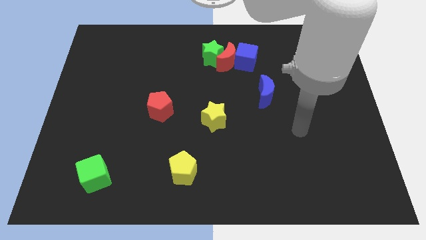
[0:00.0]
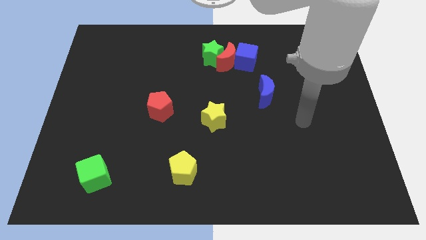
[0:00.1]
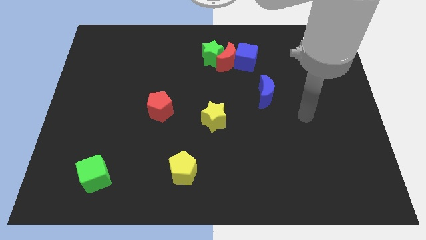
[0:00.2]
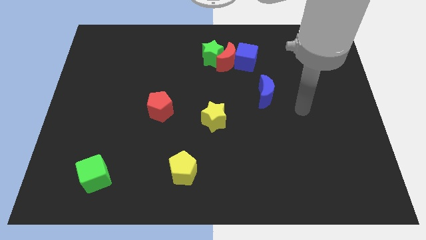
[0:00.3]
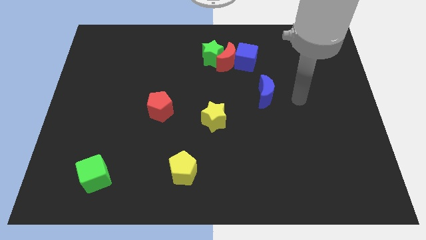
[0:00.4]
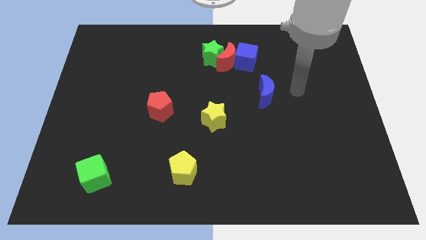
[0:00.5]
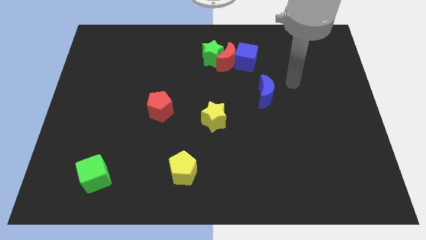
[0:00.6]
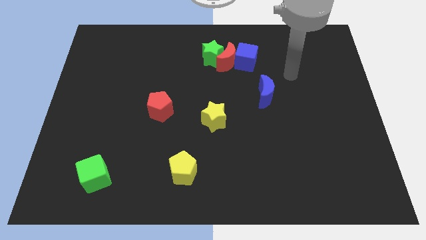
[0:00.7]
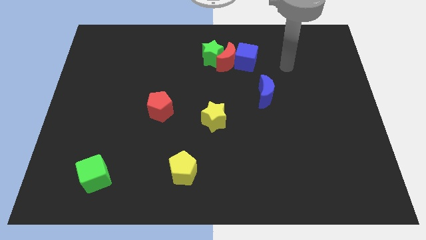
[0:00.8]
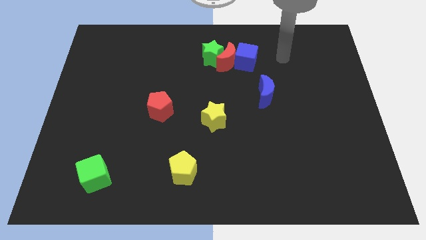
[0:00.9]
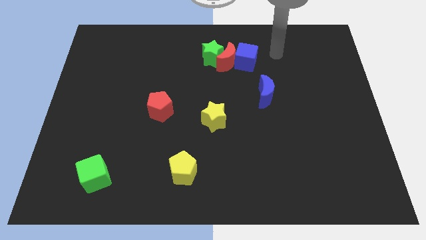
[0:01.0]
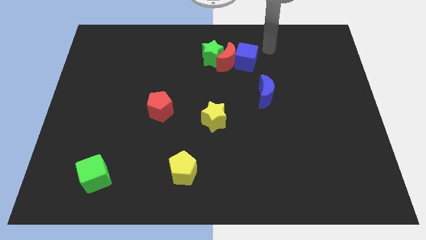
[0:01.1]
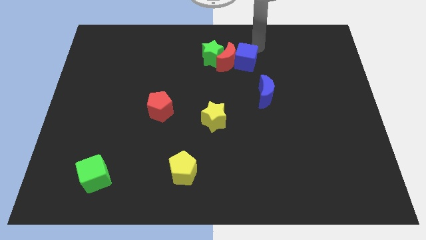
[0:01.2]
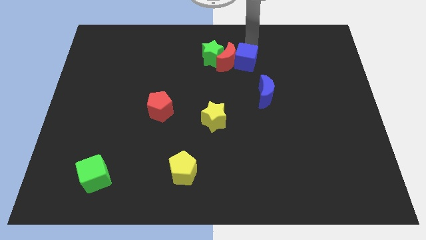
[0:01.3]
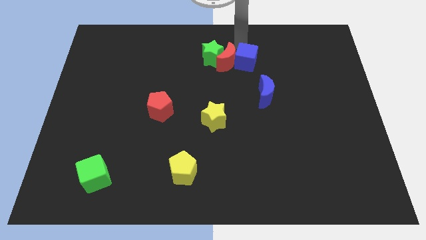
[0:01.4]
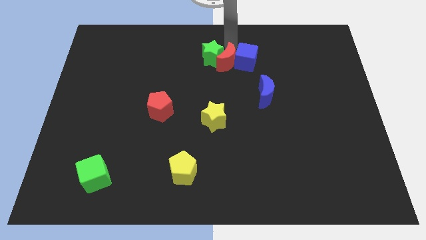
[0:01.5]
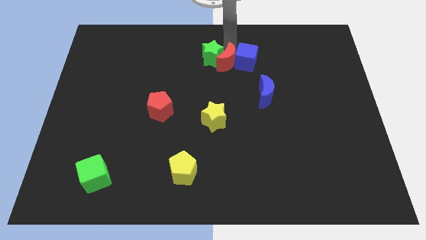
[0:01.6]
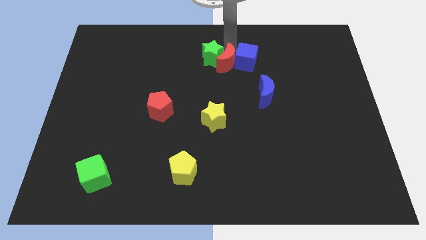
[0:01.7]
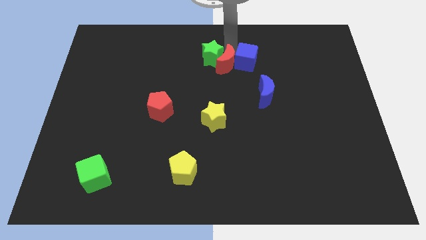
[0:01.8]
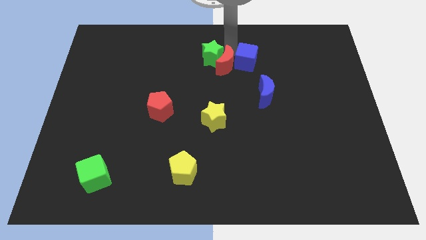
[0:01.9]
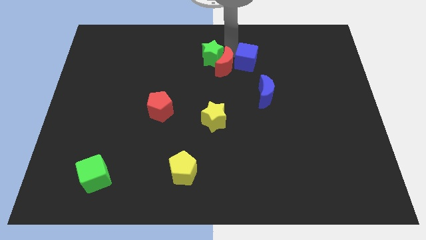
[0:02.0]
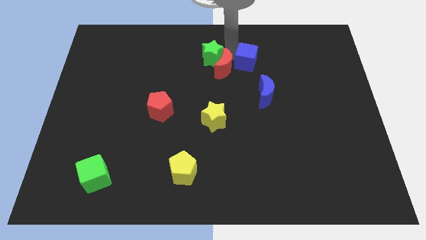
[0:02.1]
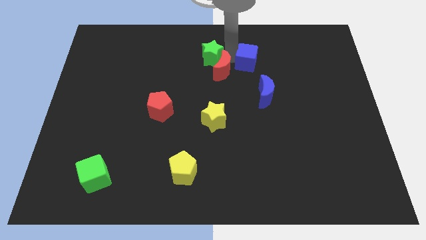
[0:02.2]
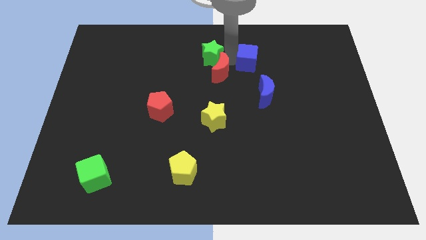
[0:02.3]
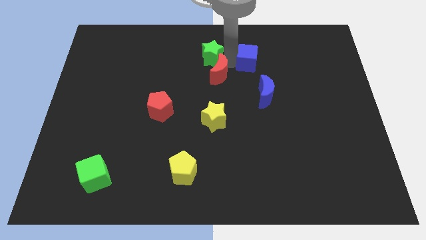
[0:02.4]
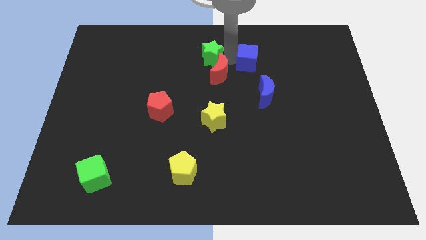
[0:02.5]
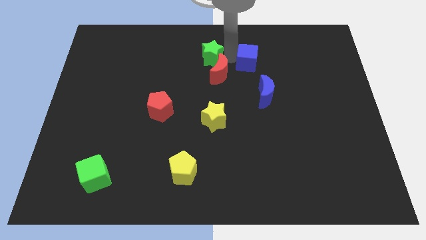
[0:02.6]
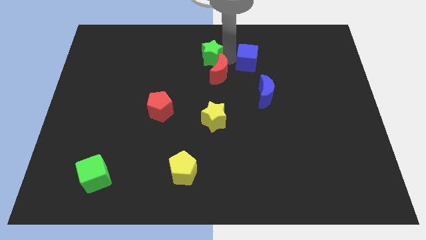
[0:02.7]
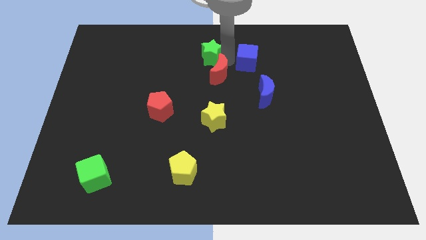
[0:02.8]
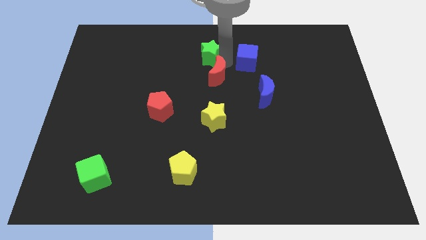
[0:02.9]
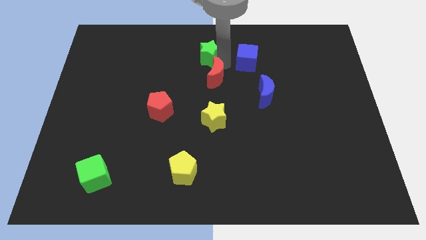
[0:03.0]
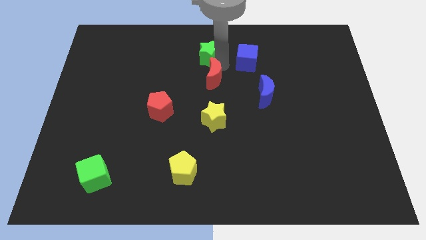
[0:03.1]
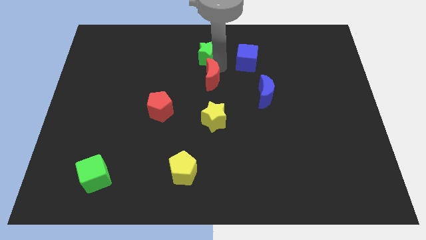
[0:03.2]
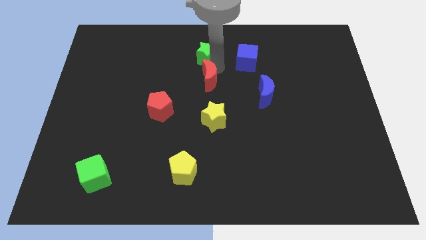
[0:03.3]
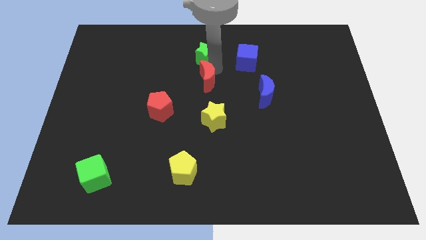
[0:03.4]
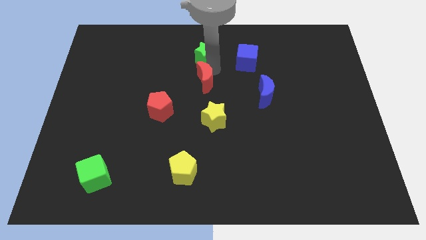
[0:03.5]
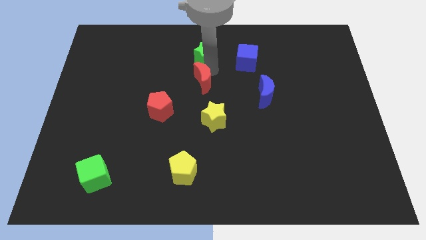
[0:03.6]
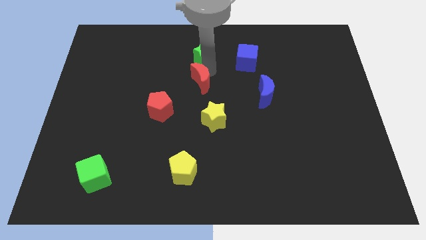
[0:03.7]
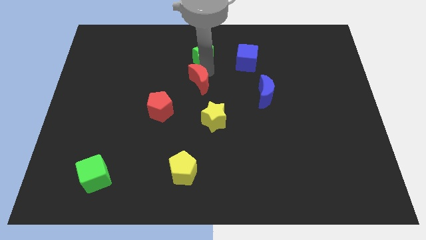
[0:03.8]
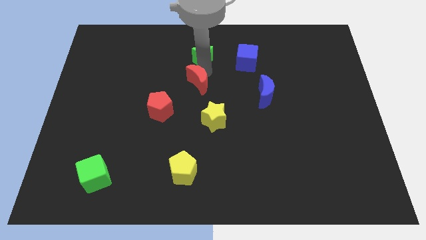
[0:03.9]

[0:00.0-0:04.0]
pull the red moon apart from the green star and blue cube

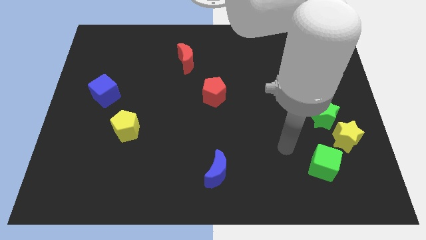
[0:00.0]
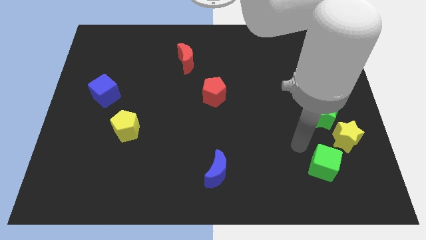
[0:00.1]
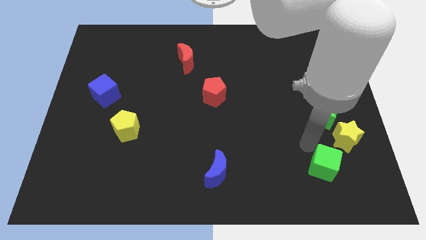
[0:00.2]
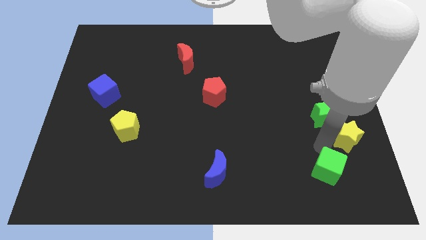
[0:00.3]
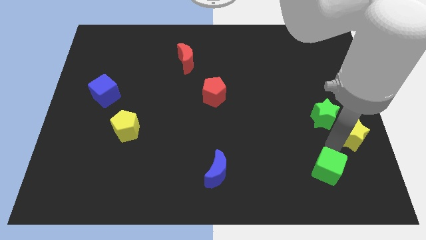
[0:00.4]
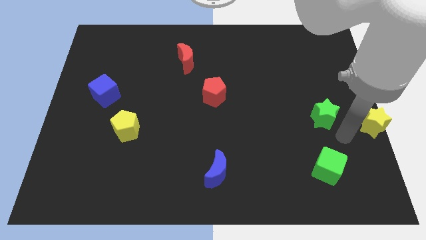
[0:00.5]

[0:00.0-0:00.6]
move the green star away from the yellow star

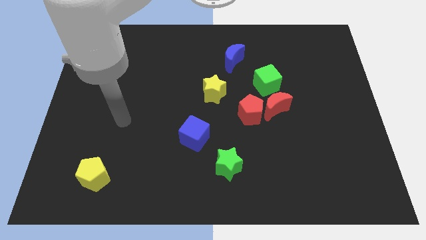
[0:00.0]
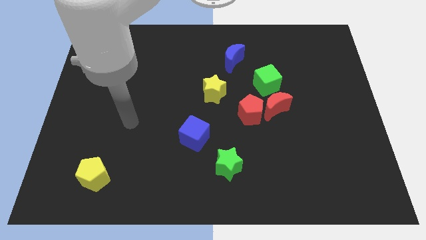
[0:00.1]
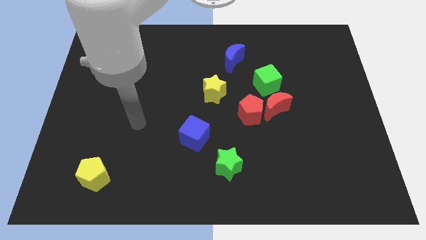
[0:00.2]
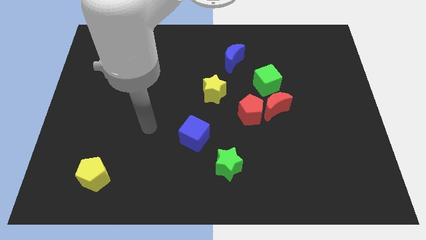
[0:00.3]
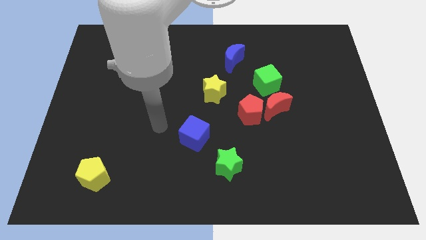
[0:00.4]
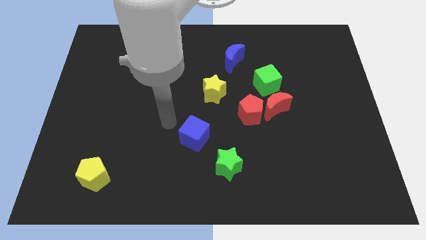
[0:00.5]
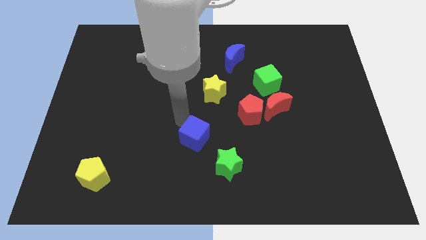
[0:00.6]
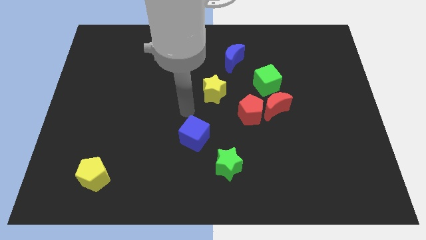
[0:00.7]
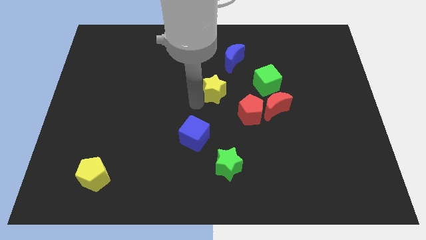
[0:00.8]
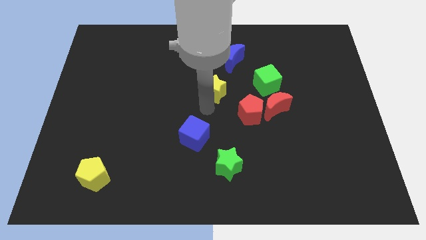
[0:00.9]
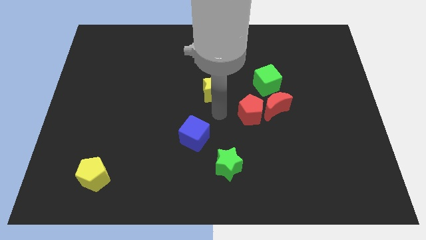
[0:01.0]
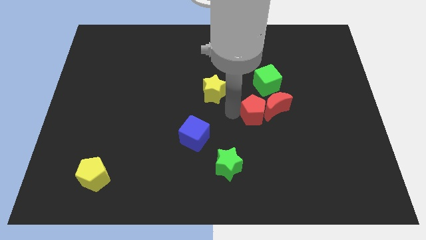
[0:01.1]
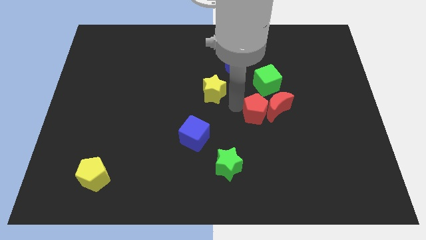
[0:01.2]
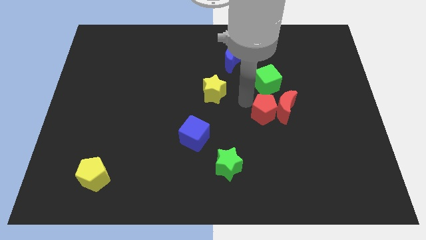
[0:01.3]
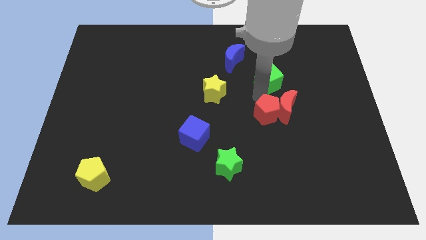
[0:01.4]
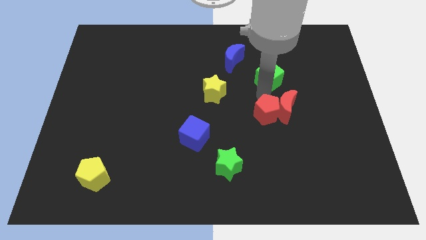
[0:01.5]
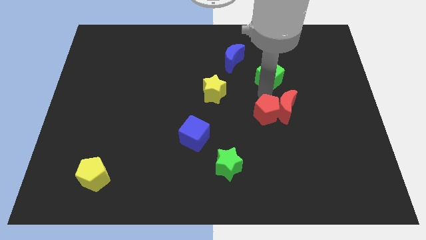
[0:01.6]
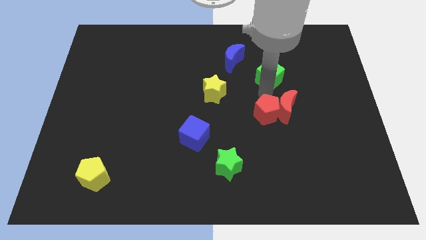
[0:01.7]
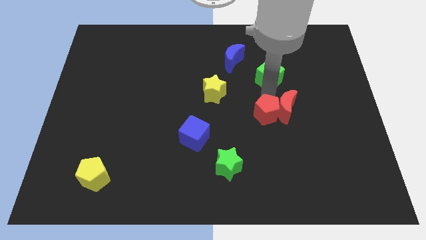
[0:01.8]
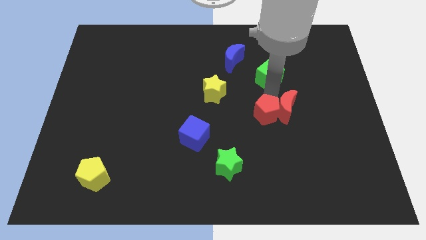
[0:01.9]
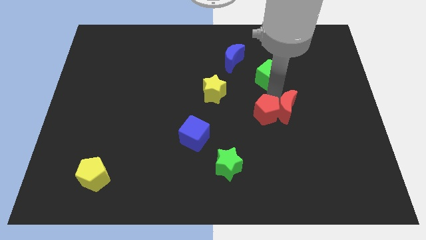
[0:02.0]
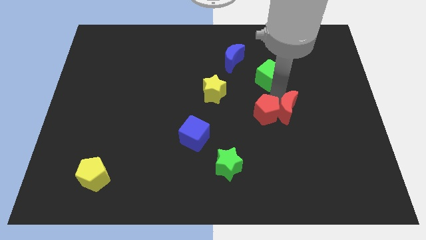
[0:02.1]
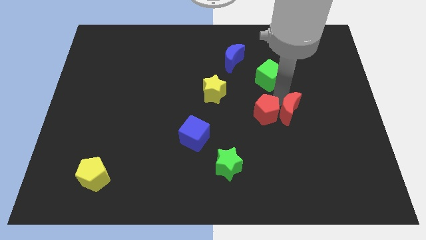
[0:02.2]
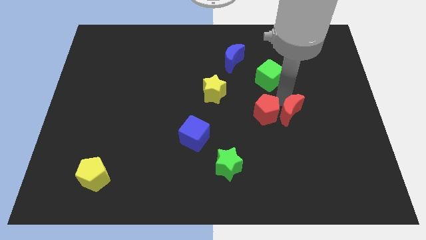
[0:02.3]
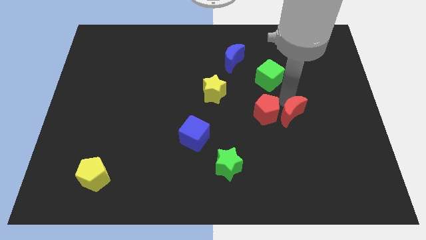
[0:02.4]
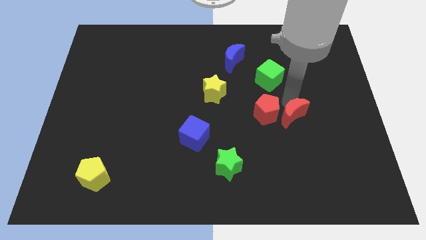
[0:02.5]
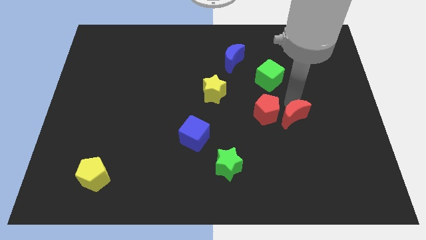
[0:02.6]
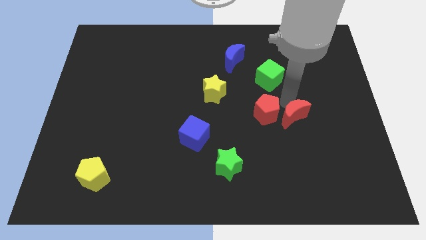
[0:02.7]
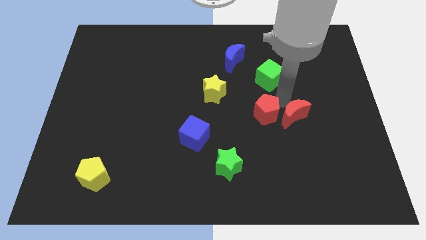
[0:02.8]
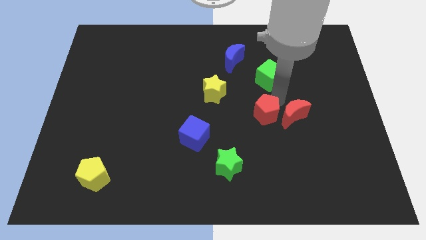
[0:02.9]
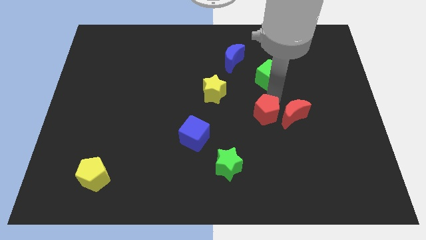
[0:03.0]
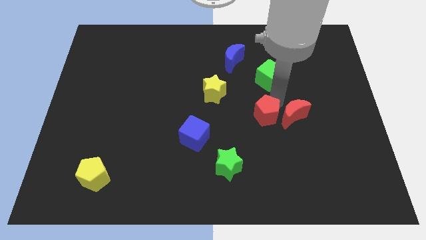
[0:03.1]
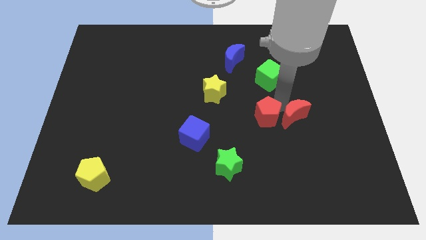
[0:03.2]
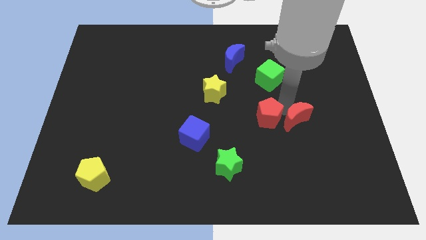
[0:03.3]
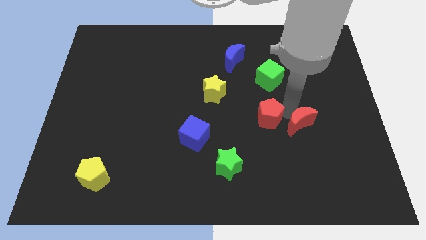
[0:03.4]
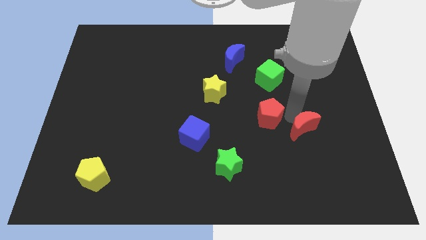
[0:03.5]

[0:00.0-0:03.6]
move the red moon away from the red pentagon and green cube

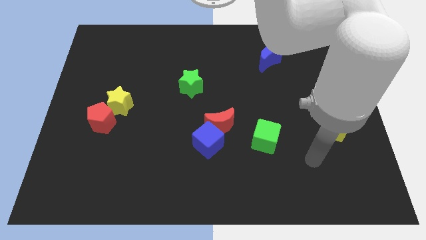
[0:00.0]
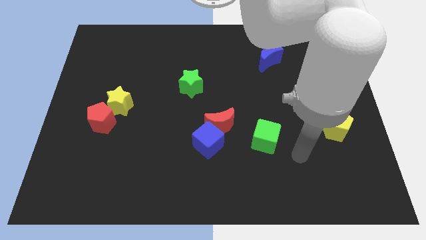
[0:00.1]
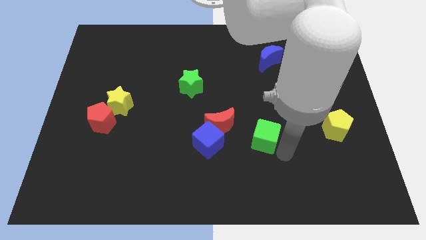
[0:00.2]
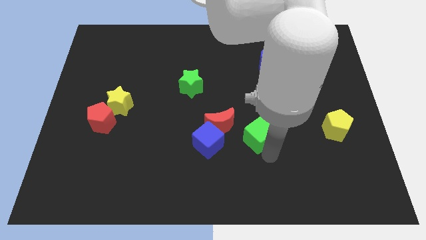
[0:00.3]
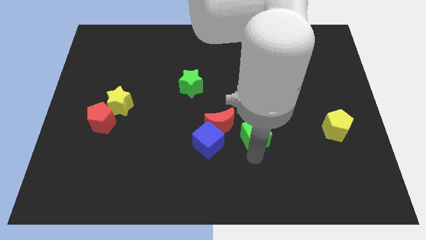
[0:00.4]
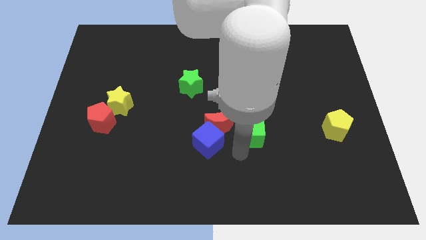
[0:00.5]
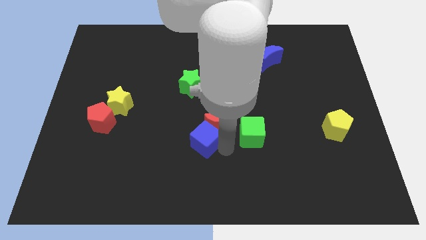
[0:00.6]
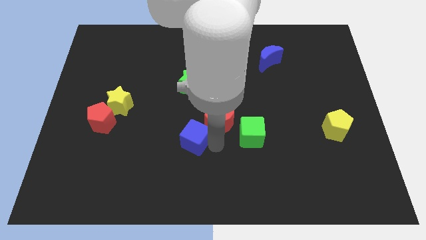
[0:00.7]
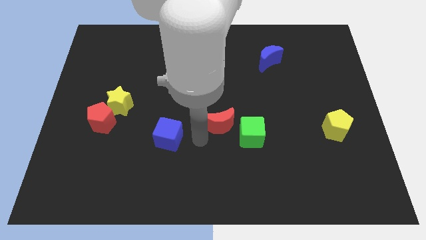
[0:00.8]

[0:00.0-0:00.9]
move the red moon away from the blue cube

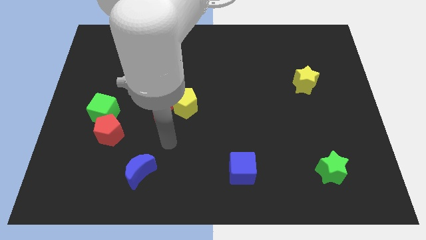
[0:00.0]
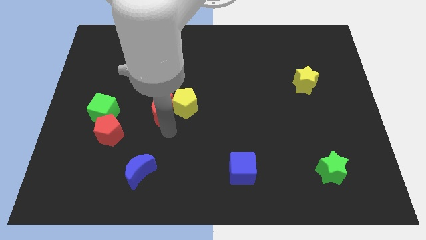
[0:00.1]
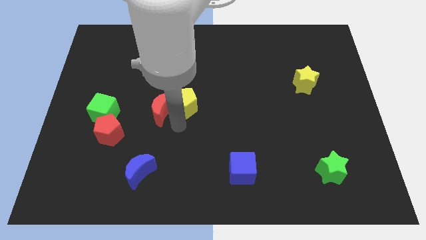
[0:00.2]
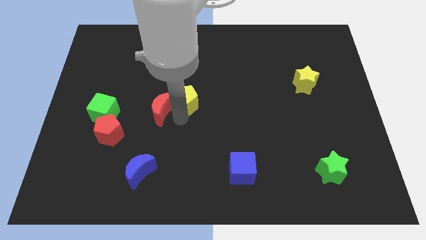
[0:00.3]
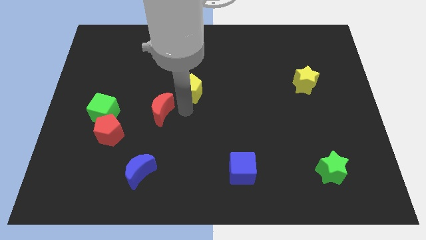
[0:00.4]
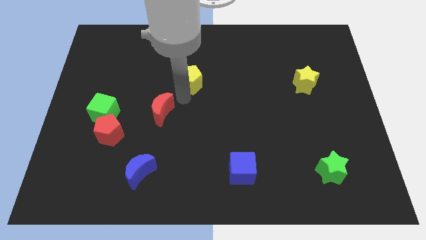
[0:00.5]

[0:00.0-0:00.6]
pull the red moon apart from the yellow pentagon
